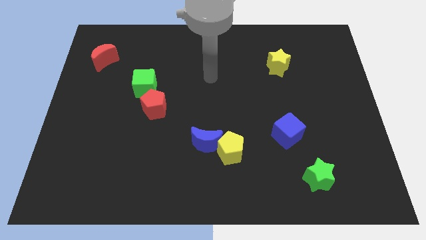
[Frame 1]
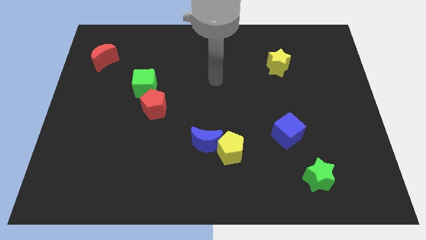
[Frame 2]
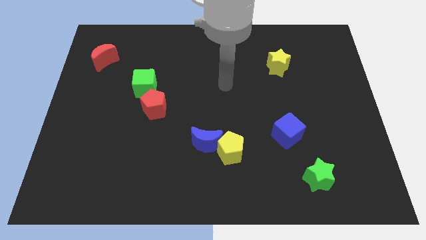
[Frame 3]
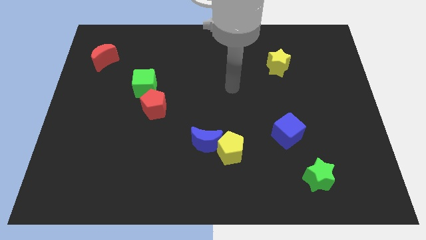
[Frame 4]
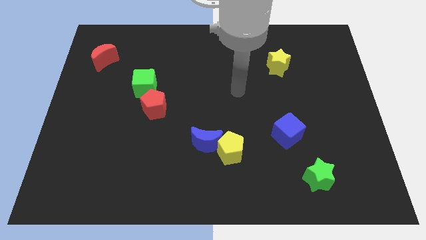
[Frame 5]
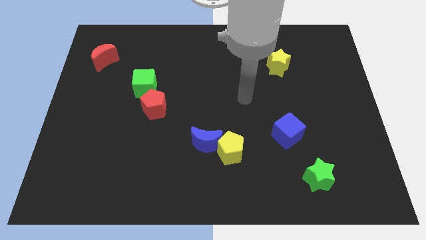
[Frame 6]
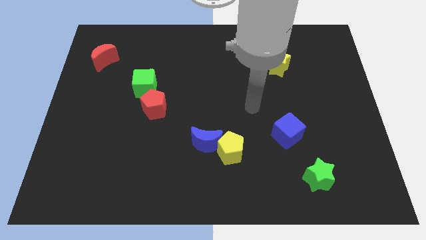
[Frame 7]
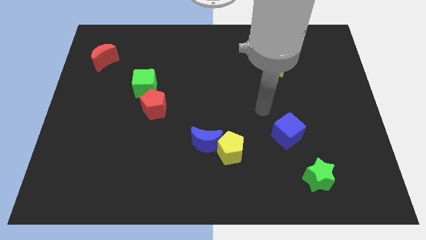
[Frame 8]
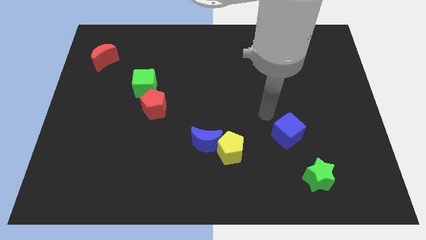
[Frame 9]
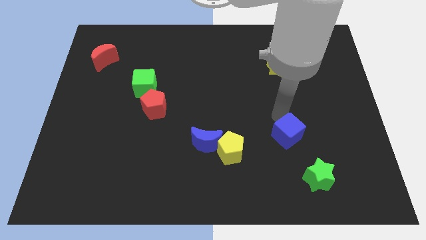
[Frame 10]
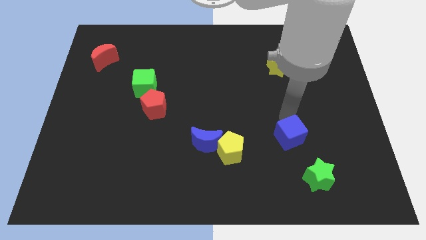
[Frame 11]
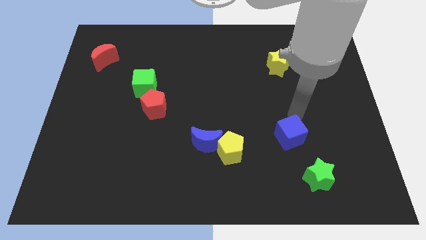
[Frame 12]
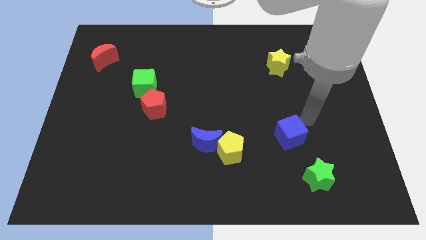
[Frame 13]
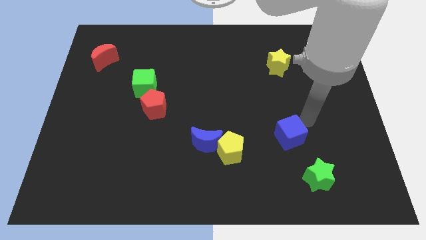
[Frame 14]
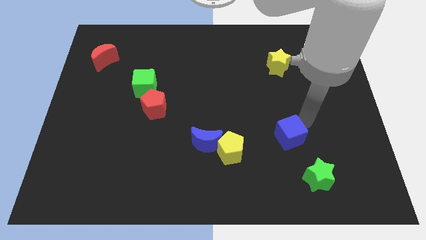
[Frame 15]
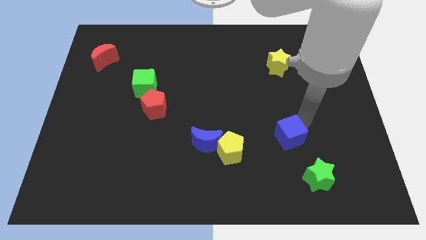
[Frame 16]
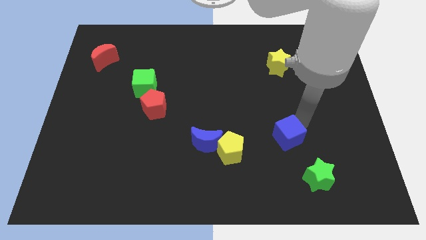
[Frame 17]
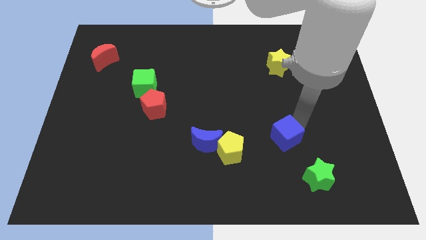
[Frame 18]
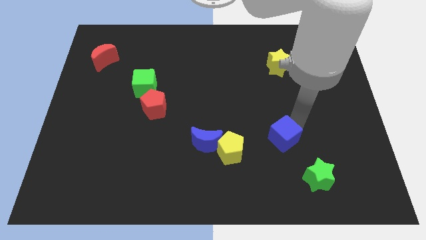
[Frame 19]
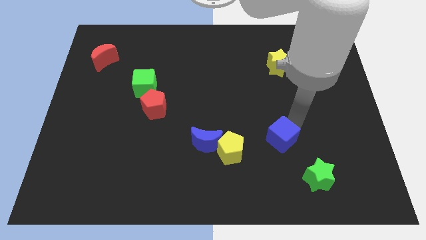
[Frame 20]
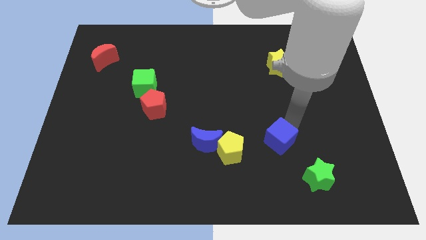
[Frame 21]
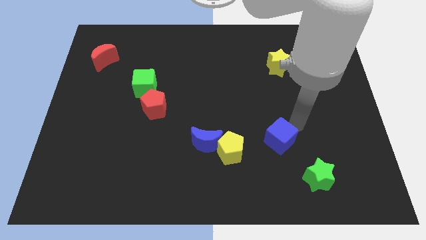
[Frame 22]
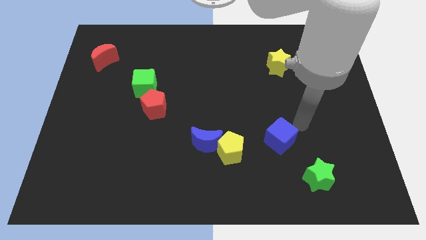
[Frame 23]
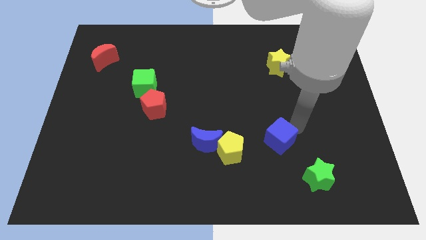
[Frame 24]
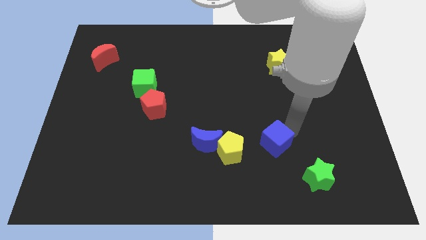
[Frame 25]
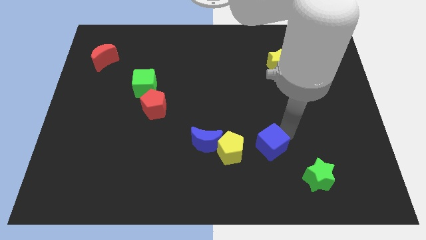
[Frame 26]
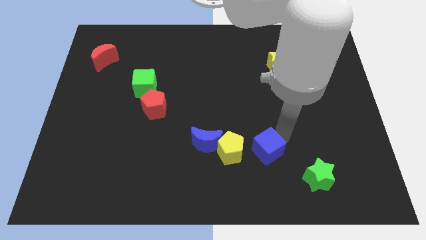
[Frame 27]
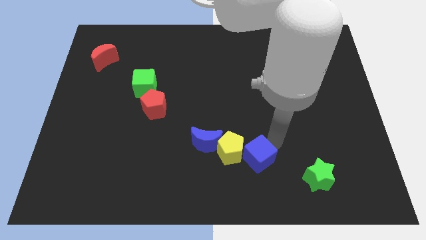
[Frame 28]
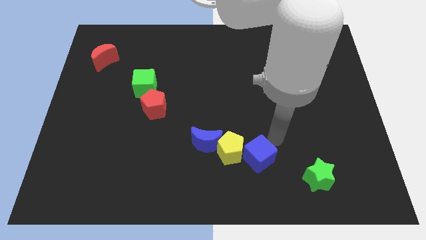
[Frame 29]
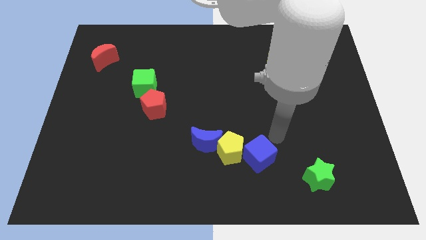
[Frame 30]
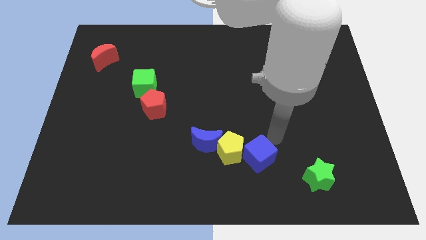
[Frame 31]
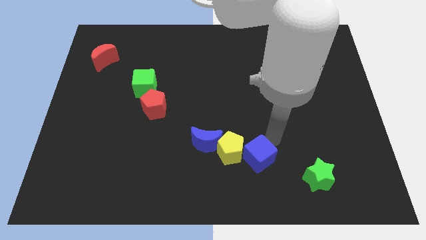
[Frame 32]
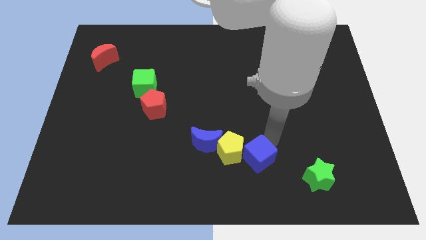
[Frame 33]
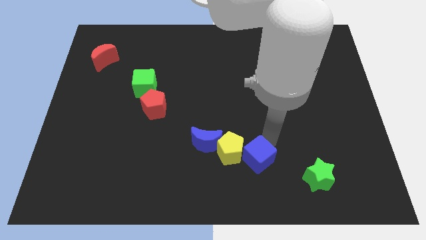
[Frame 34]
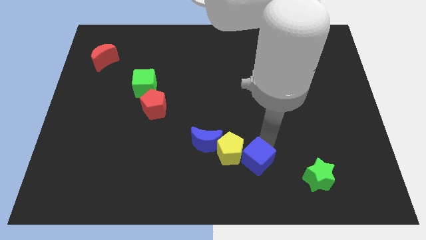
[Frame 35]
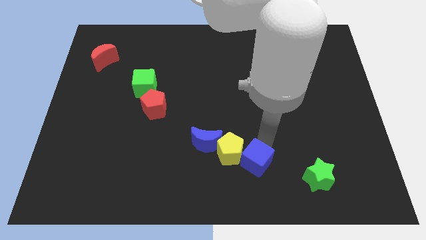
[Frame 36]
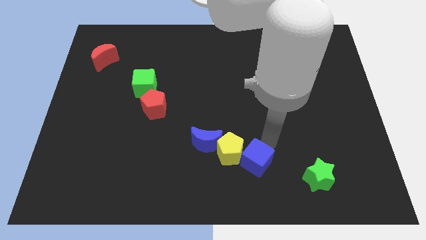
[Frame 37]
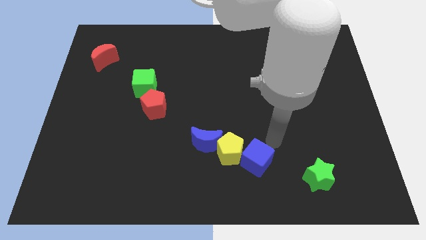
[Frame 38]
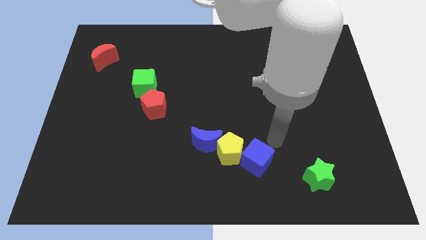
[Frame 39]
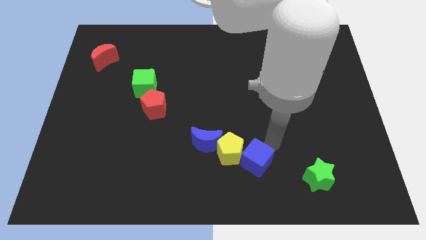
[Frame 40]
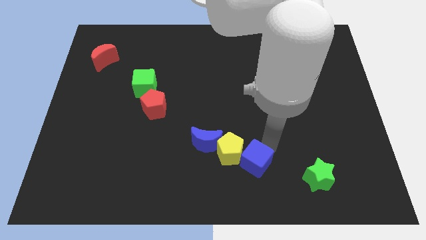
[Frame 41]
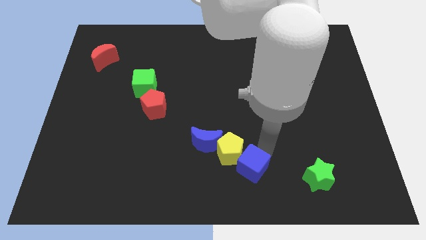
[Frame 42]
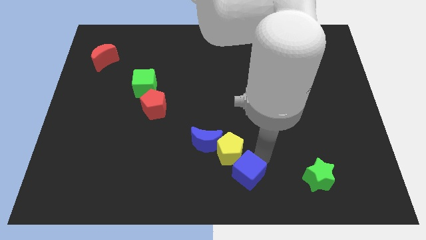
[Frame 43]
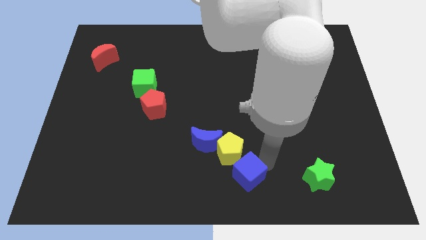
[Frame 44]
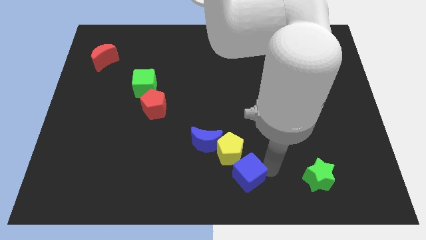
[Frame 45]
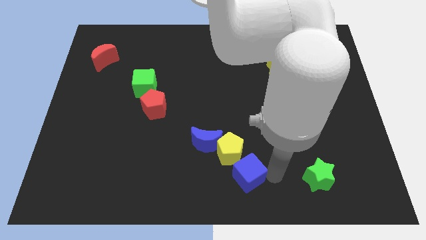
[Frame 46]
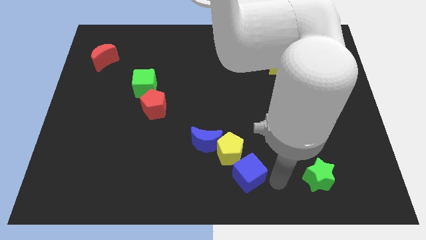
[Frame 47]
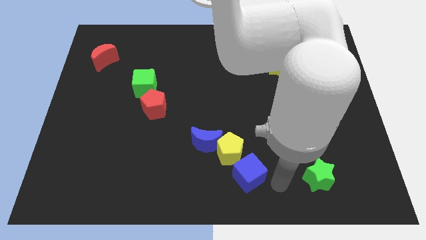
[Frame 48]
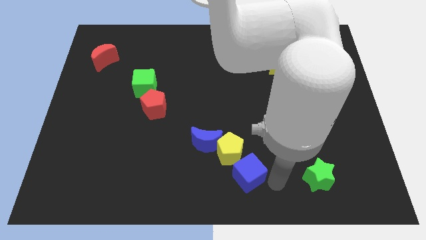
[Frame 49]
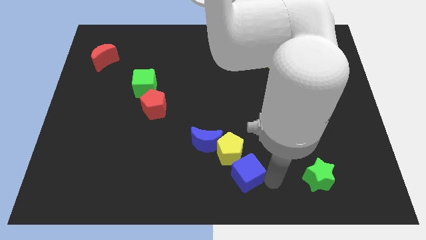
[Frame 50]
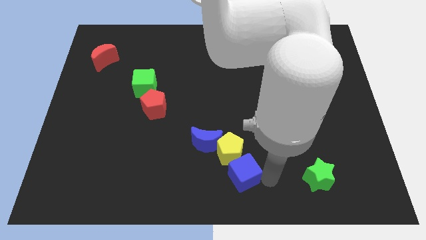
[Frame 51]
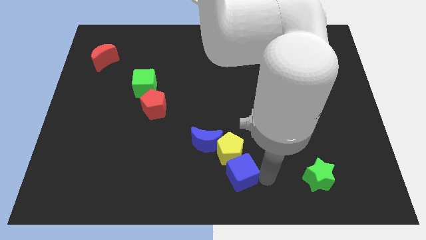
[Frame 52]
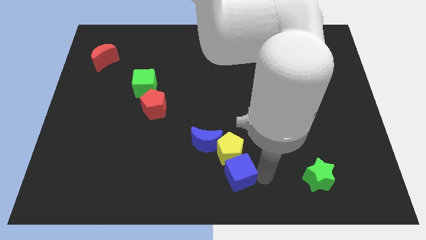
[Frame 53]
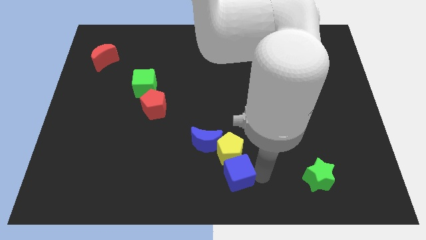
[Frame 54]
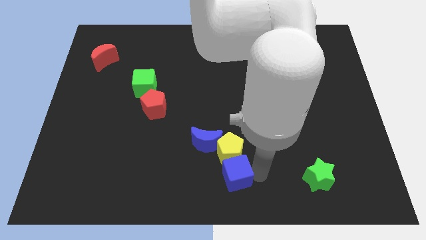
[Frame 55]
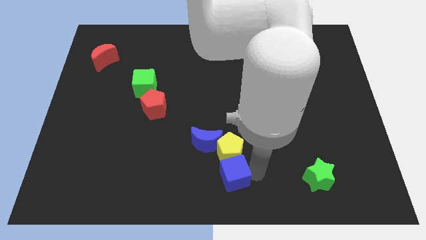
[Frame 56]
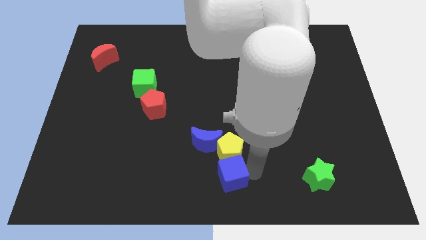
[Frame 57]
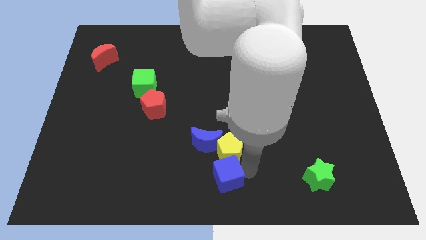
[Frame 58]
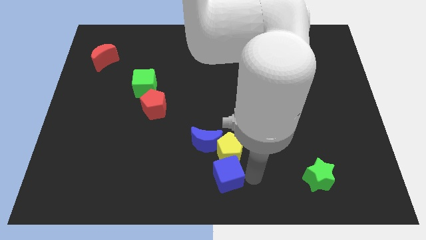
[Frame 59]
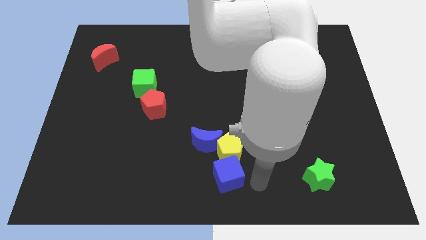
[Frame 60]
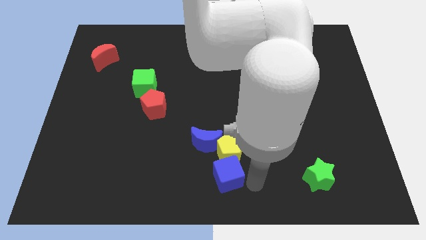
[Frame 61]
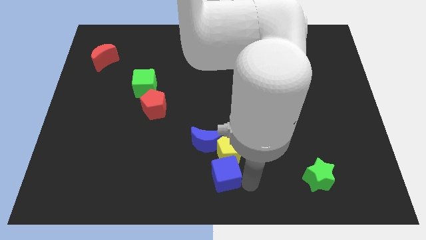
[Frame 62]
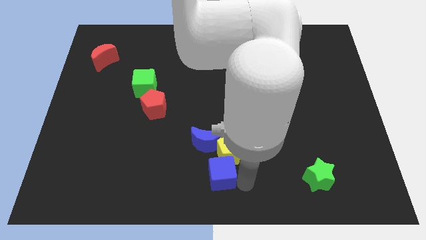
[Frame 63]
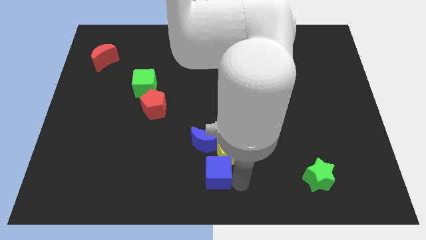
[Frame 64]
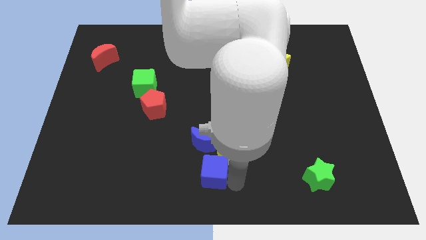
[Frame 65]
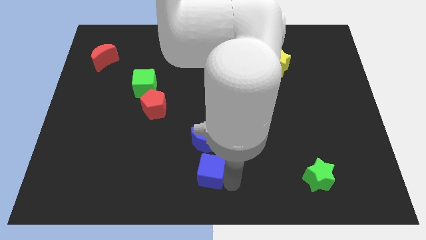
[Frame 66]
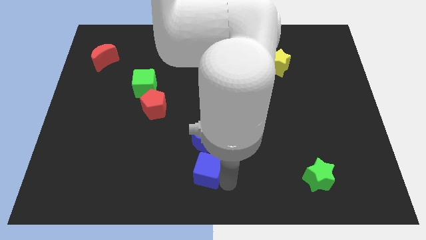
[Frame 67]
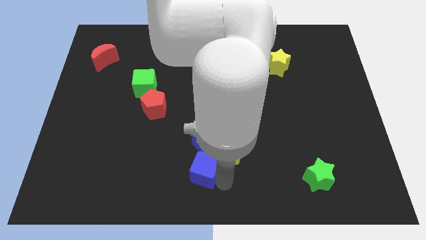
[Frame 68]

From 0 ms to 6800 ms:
put the blue cube to the bottom left side of the blue moon
